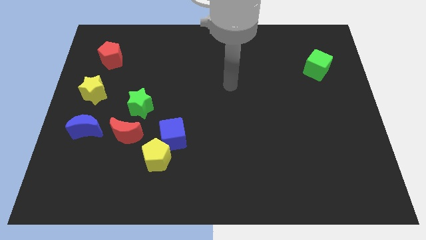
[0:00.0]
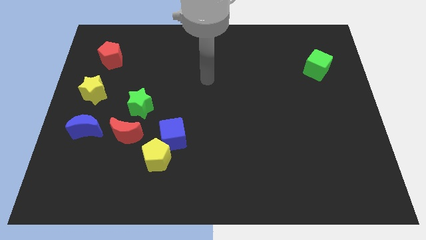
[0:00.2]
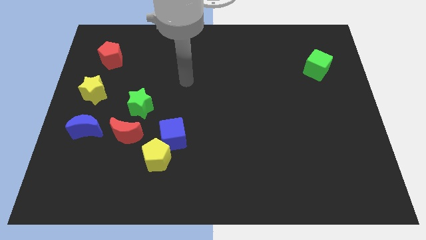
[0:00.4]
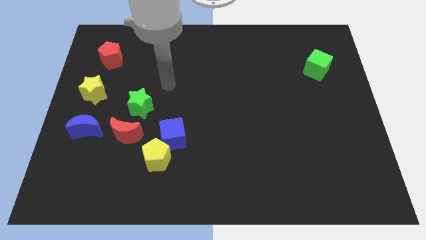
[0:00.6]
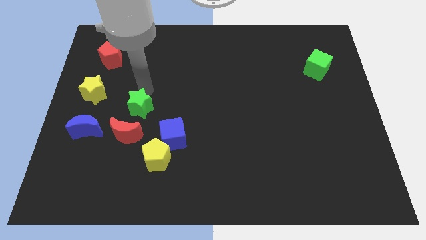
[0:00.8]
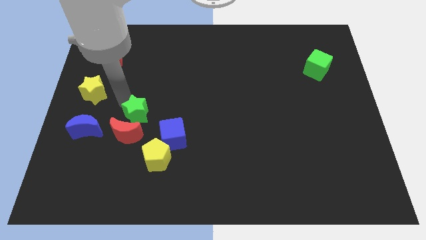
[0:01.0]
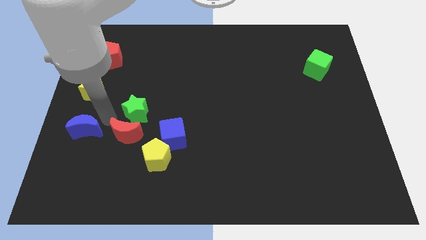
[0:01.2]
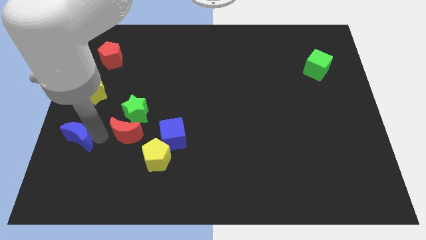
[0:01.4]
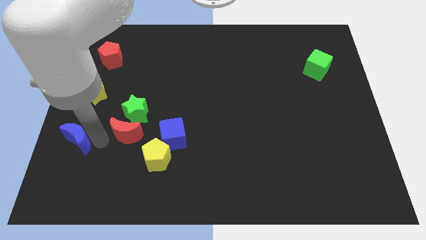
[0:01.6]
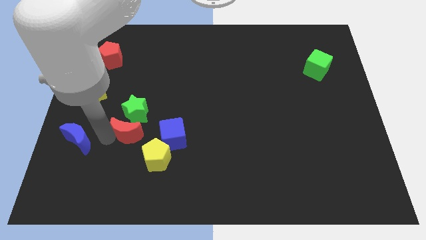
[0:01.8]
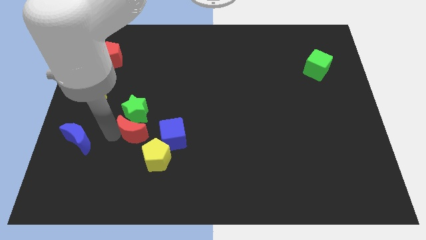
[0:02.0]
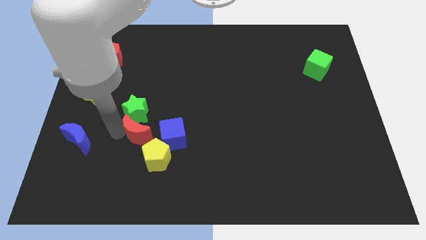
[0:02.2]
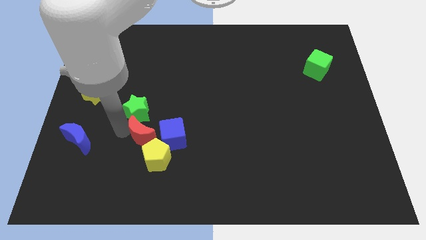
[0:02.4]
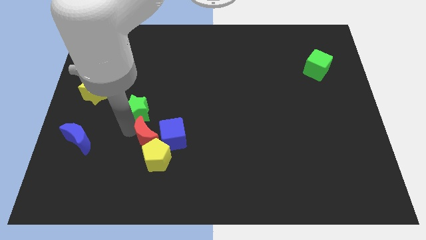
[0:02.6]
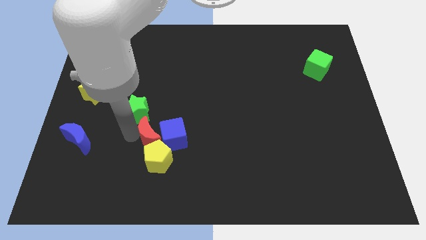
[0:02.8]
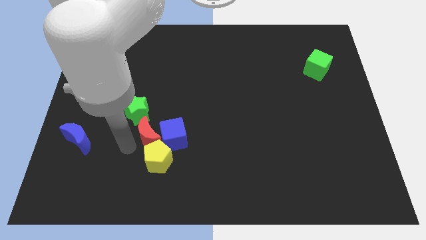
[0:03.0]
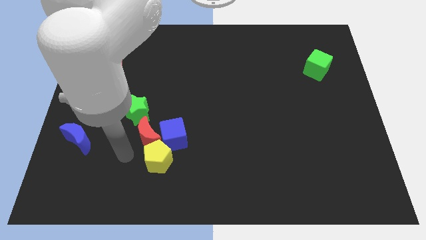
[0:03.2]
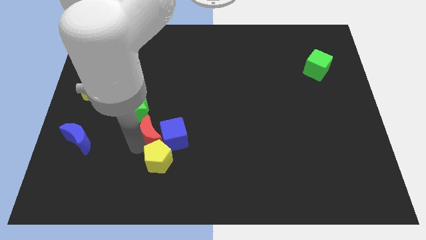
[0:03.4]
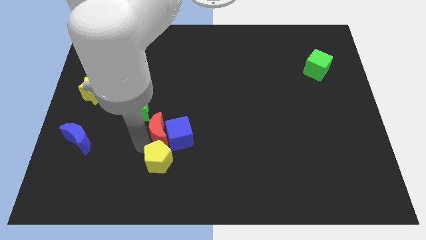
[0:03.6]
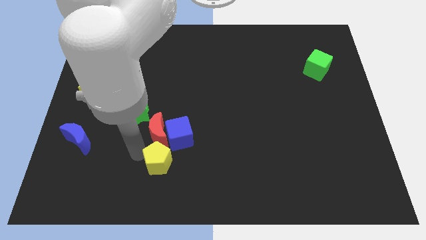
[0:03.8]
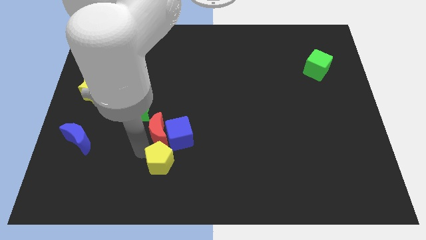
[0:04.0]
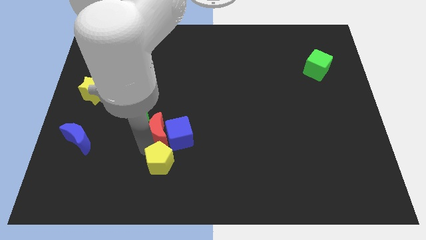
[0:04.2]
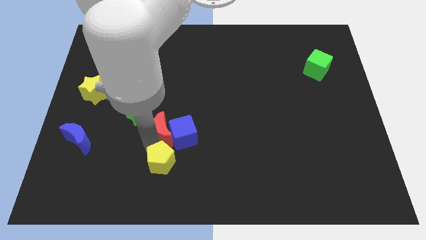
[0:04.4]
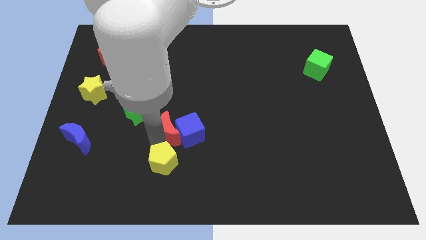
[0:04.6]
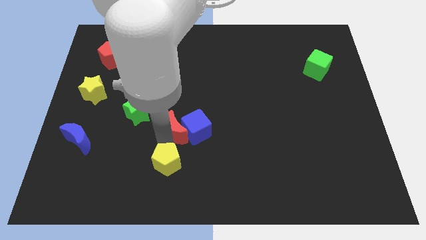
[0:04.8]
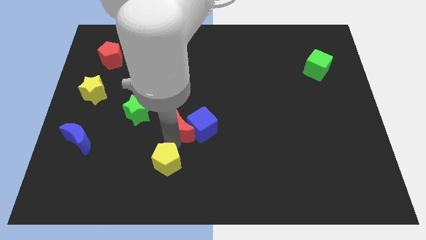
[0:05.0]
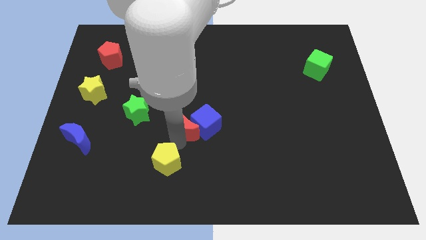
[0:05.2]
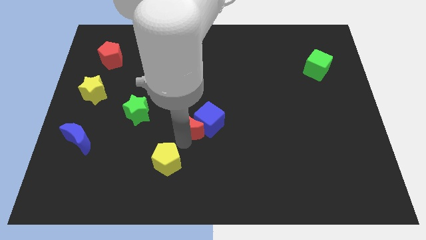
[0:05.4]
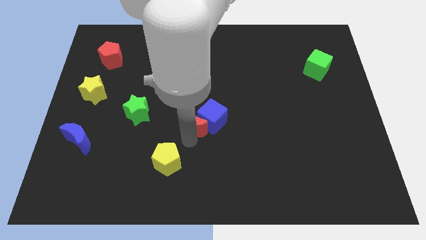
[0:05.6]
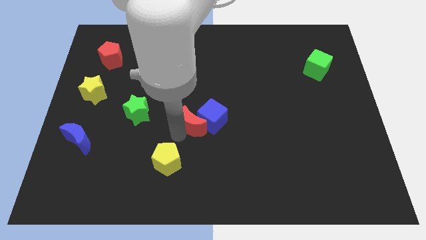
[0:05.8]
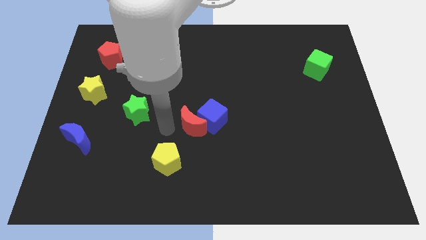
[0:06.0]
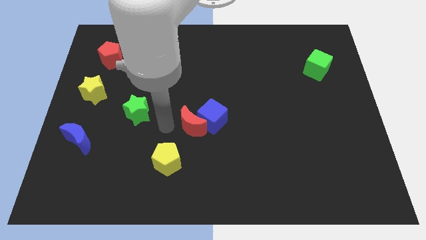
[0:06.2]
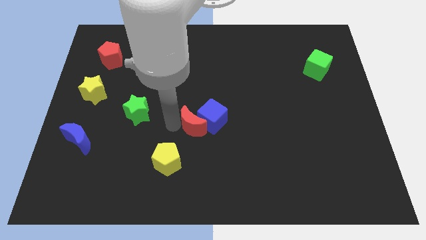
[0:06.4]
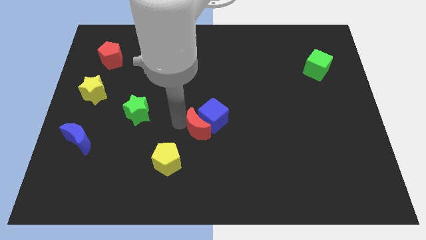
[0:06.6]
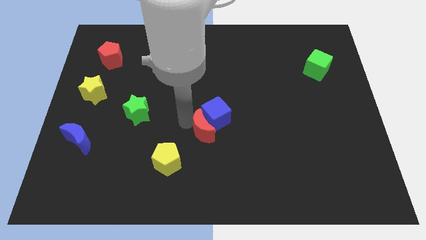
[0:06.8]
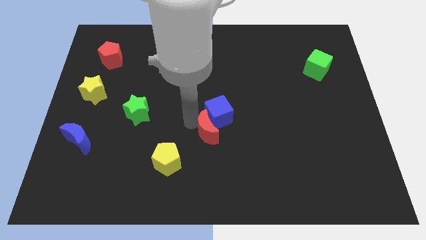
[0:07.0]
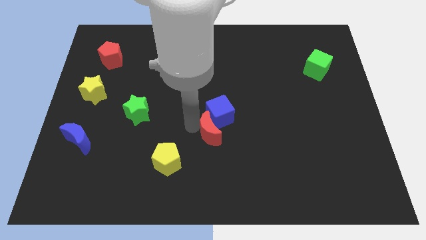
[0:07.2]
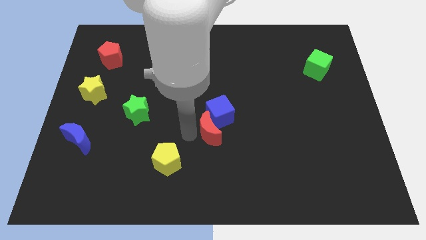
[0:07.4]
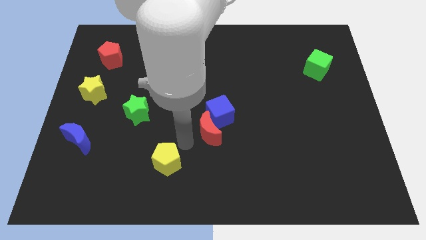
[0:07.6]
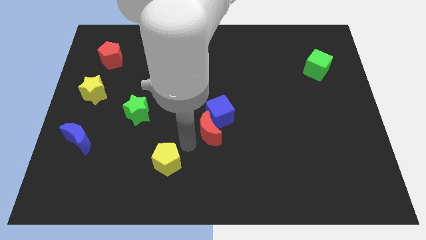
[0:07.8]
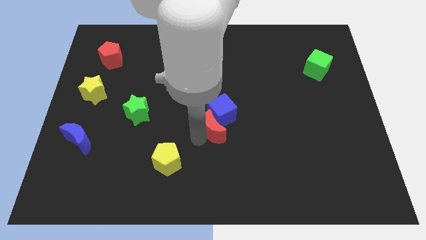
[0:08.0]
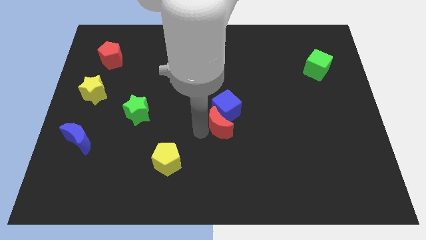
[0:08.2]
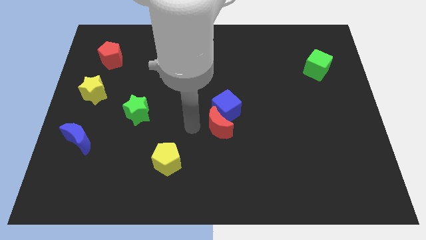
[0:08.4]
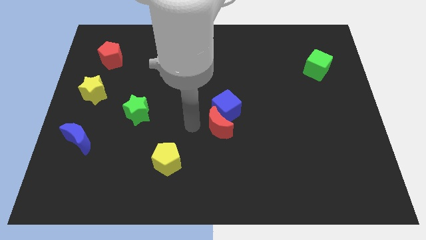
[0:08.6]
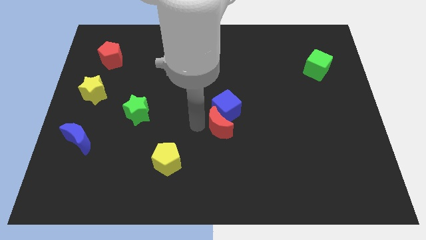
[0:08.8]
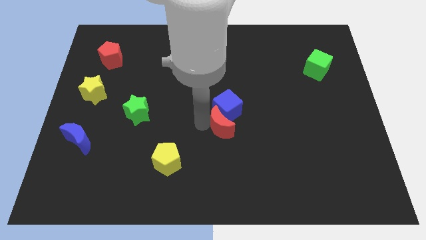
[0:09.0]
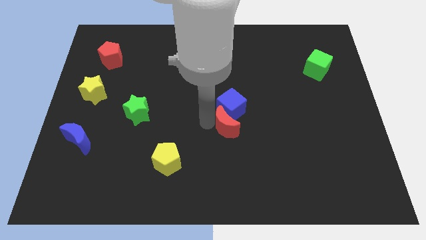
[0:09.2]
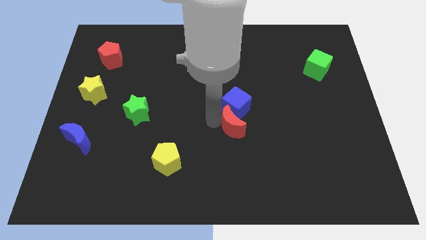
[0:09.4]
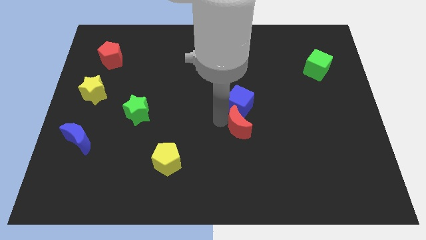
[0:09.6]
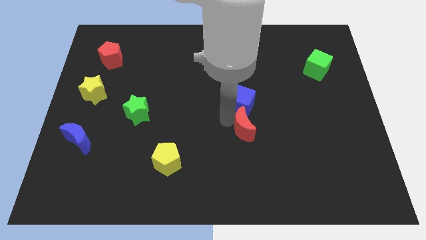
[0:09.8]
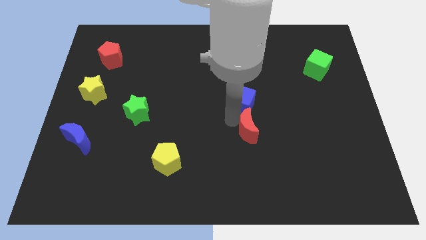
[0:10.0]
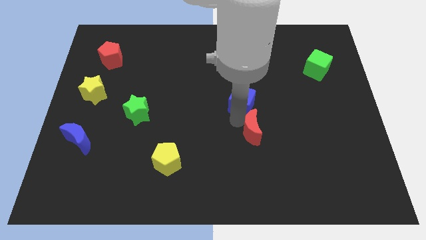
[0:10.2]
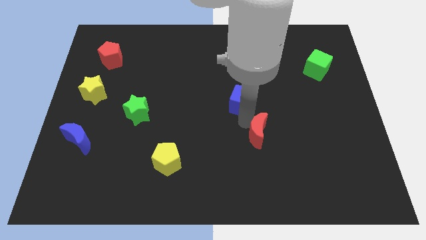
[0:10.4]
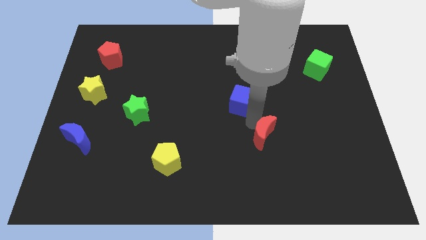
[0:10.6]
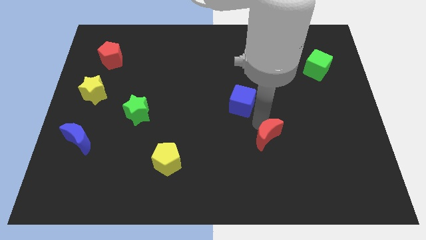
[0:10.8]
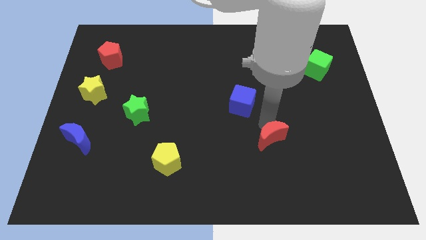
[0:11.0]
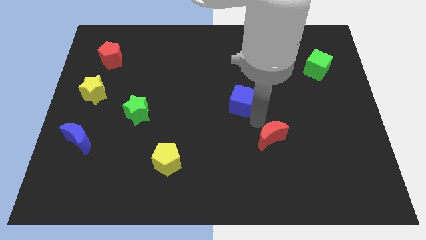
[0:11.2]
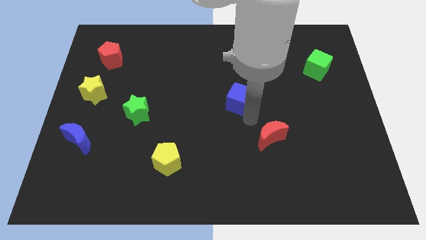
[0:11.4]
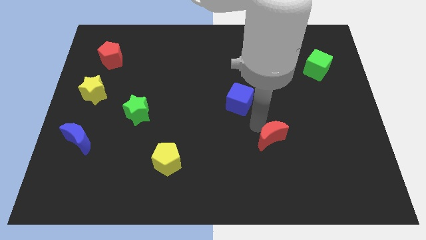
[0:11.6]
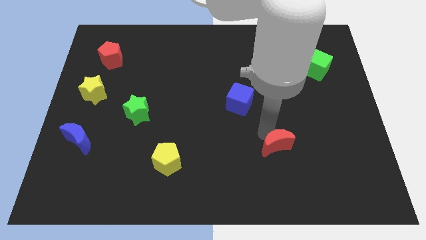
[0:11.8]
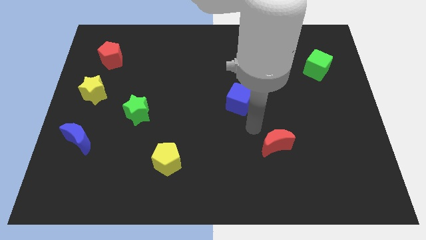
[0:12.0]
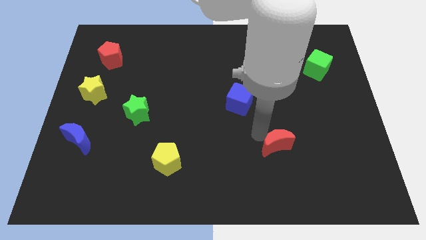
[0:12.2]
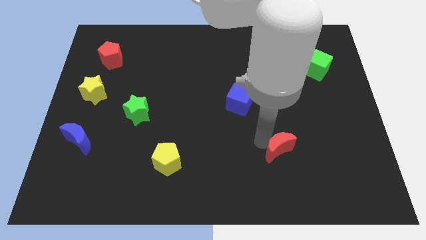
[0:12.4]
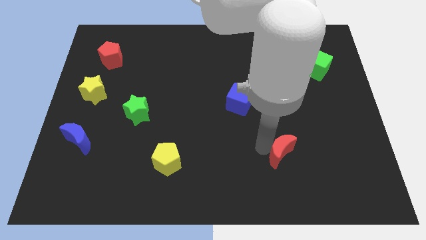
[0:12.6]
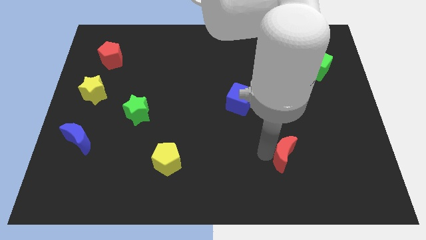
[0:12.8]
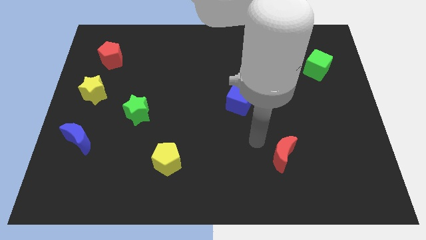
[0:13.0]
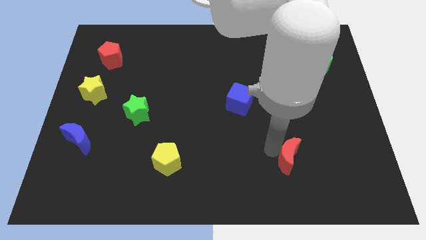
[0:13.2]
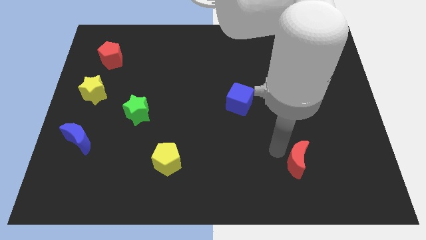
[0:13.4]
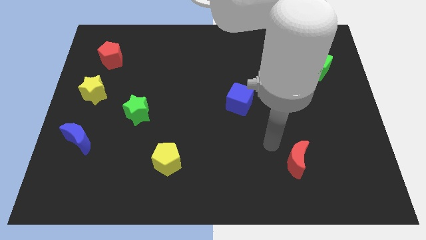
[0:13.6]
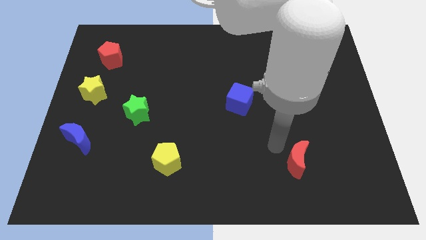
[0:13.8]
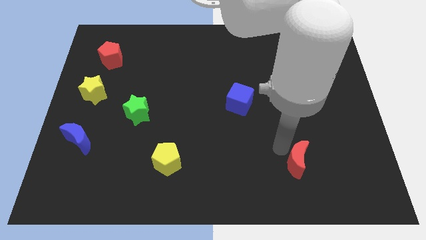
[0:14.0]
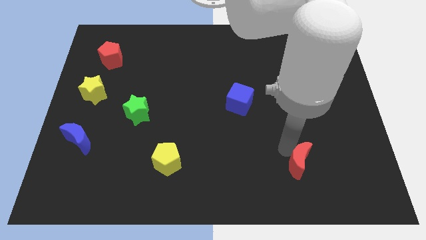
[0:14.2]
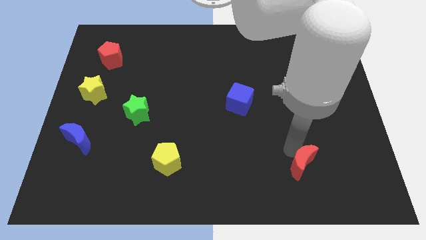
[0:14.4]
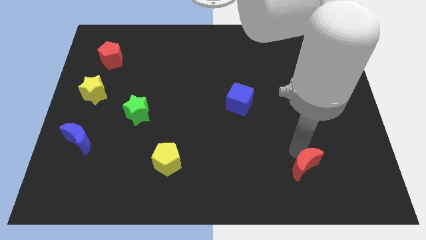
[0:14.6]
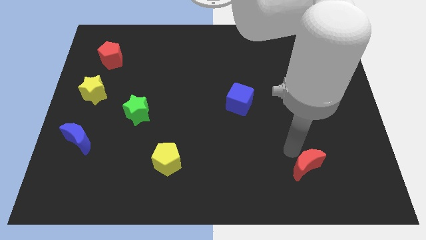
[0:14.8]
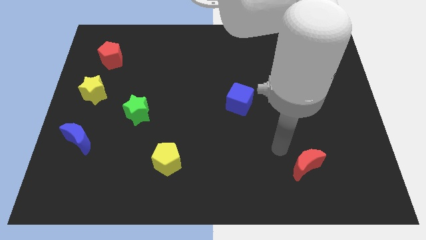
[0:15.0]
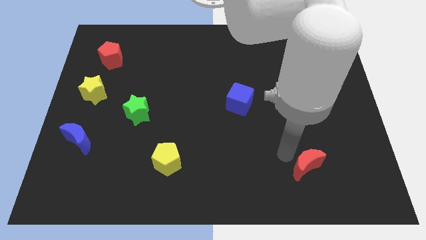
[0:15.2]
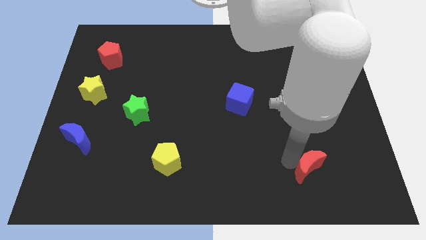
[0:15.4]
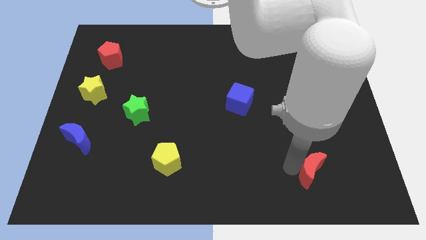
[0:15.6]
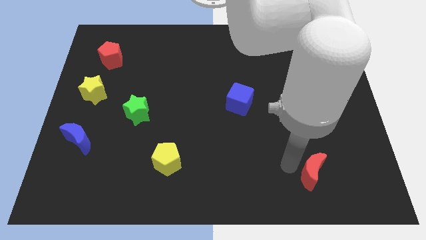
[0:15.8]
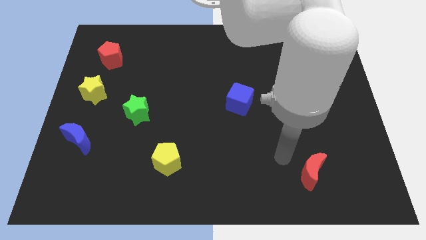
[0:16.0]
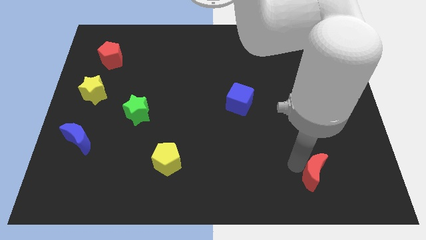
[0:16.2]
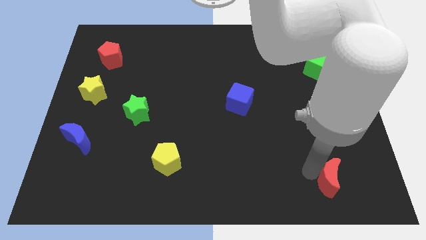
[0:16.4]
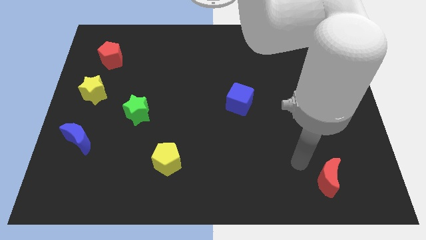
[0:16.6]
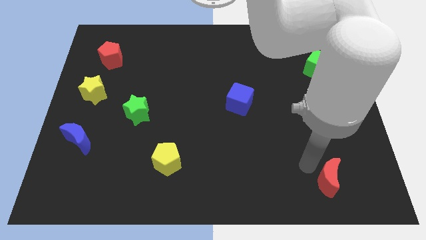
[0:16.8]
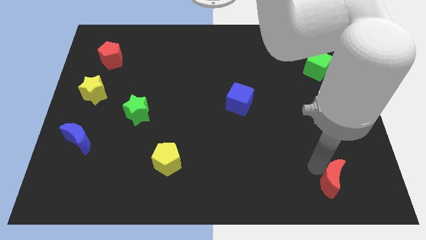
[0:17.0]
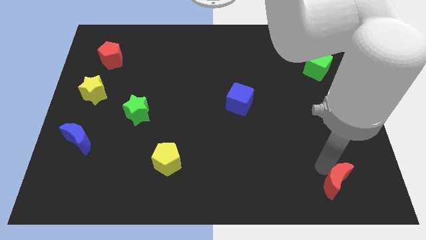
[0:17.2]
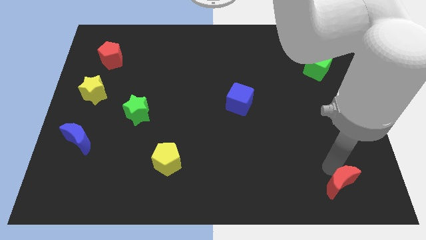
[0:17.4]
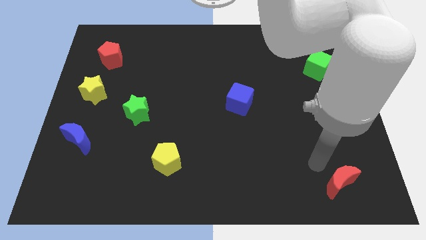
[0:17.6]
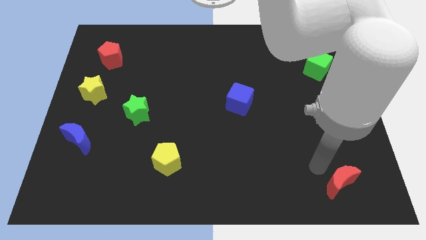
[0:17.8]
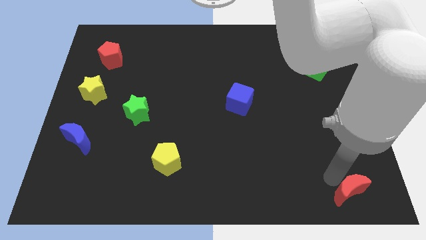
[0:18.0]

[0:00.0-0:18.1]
push the red moon to the bottom right of the board
